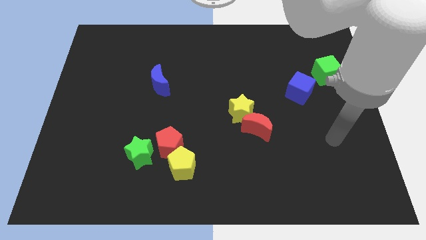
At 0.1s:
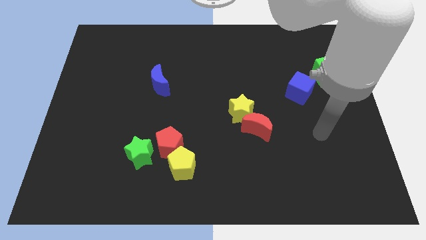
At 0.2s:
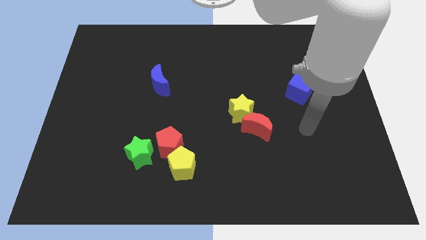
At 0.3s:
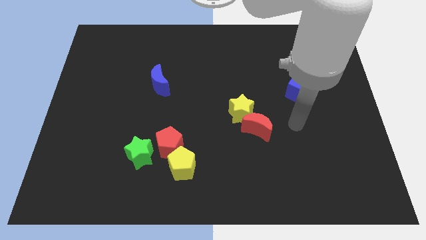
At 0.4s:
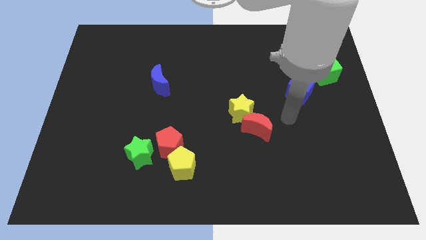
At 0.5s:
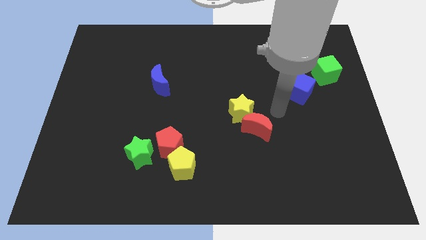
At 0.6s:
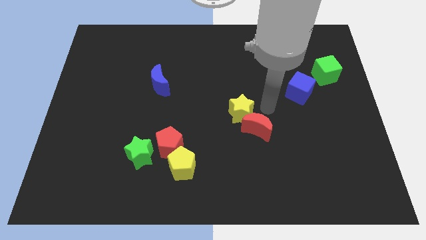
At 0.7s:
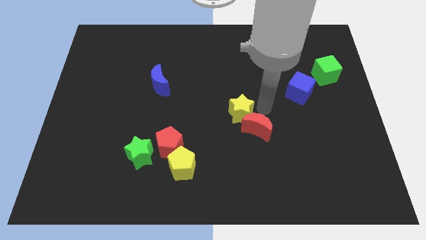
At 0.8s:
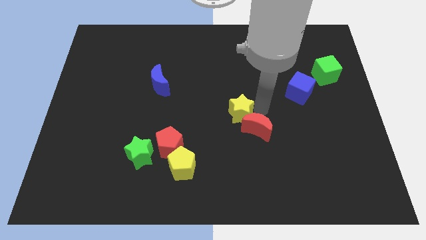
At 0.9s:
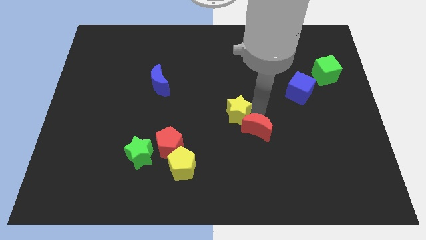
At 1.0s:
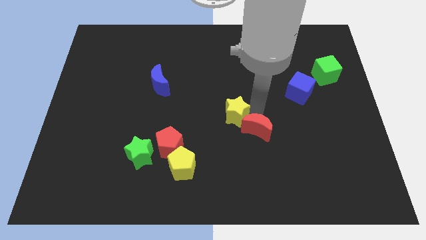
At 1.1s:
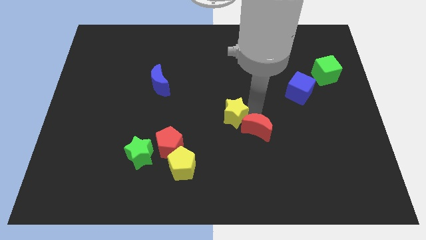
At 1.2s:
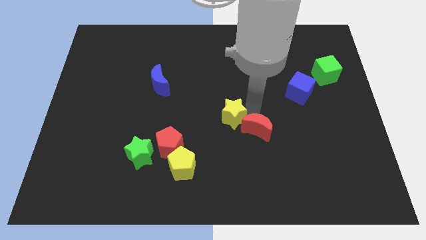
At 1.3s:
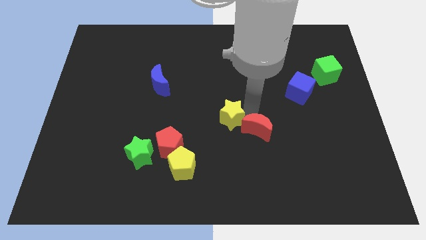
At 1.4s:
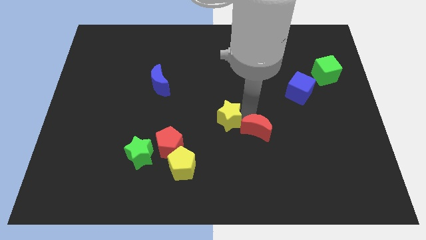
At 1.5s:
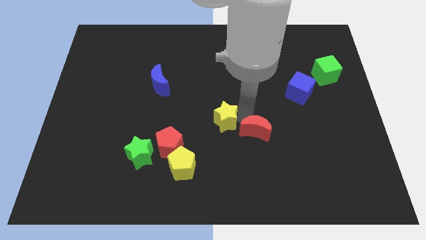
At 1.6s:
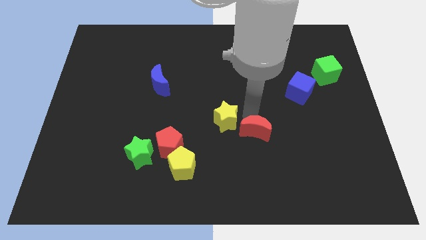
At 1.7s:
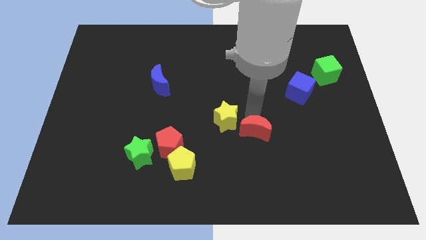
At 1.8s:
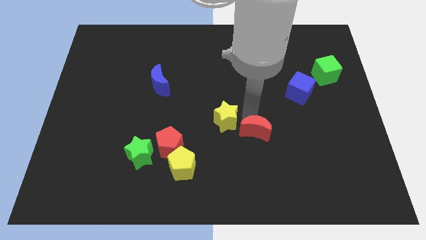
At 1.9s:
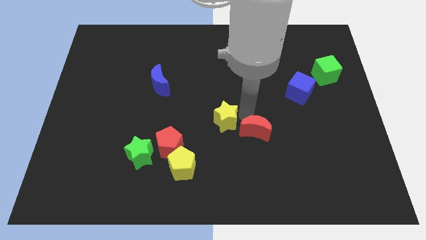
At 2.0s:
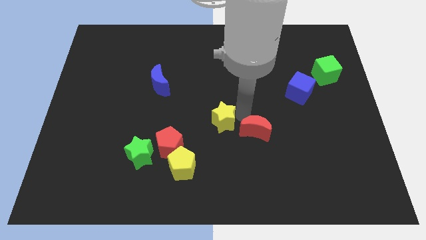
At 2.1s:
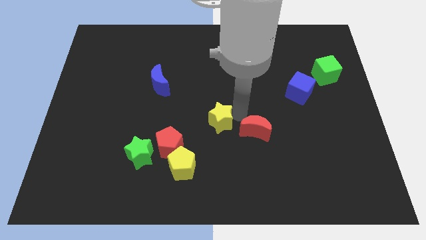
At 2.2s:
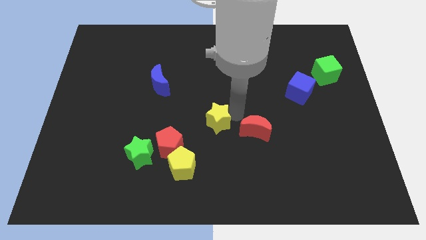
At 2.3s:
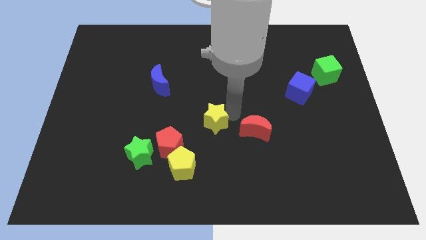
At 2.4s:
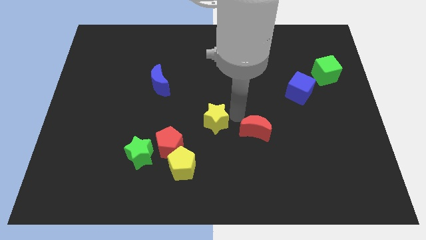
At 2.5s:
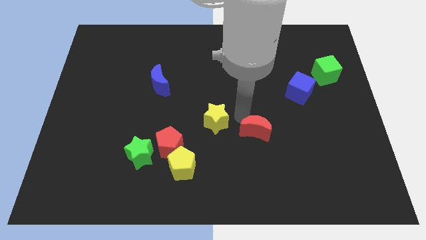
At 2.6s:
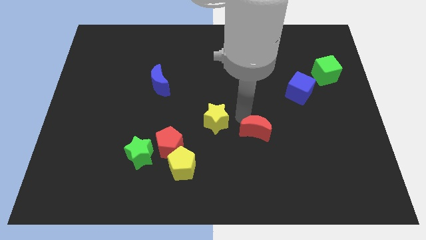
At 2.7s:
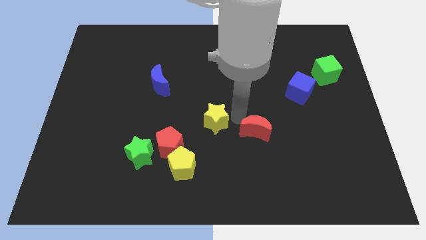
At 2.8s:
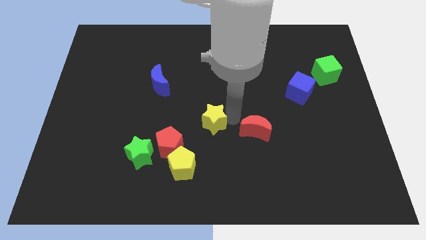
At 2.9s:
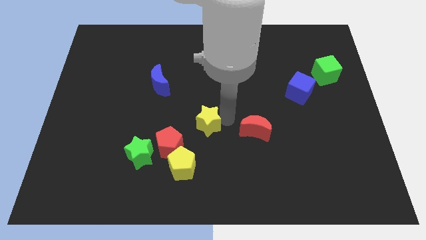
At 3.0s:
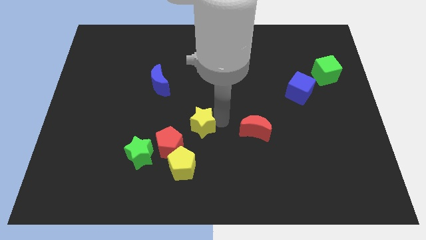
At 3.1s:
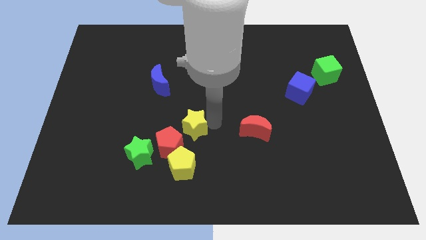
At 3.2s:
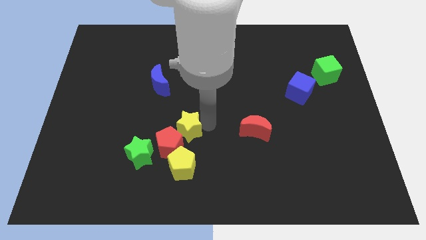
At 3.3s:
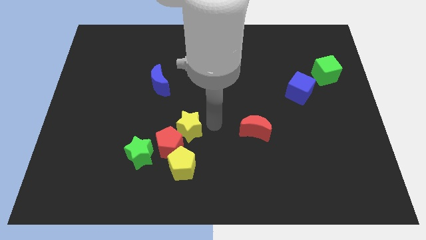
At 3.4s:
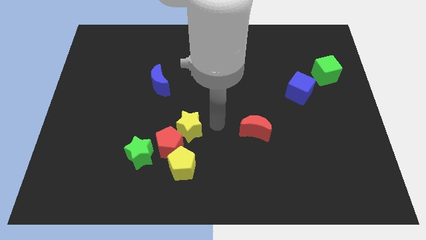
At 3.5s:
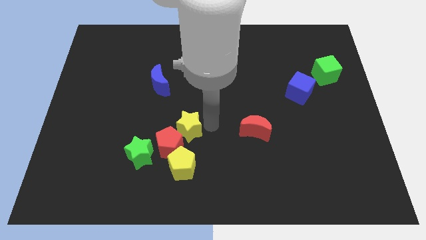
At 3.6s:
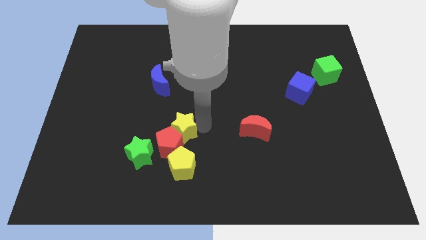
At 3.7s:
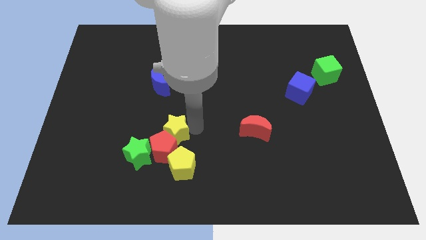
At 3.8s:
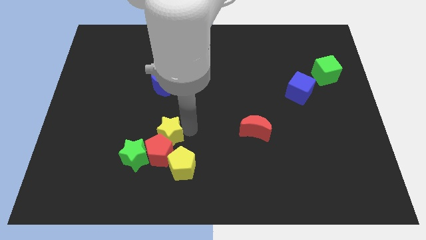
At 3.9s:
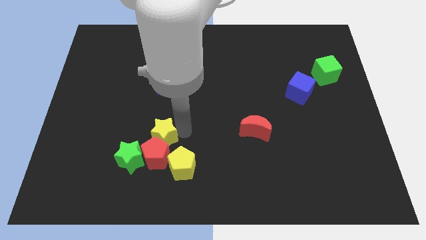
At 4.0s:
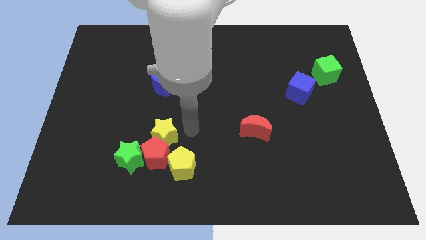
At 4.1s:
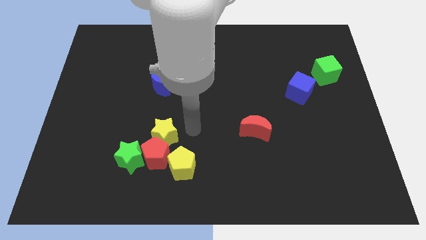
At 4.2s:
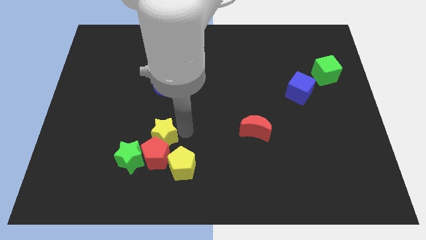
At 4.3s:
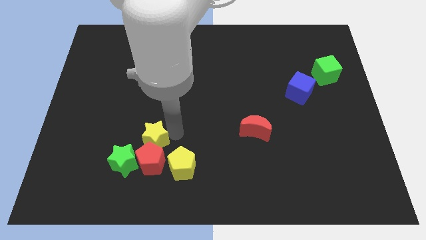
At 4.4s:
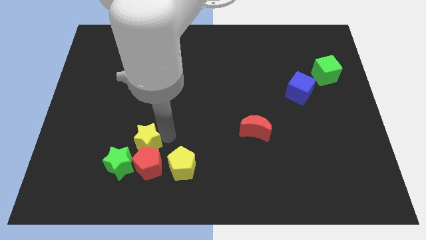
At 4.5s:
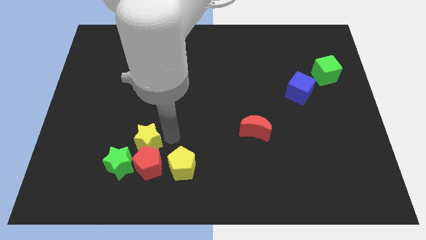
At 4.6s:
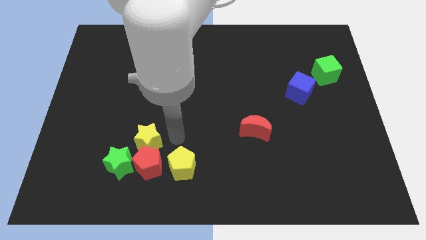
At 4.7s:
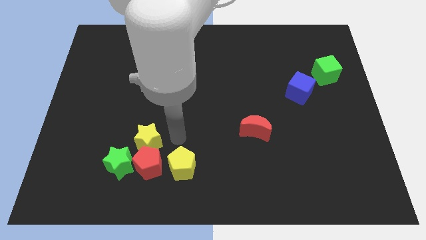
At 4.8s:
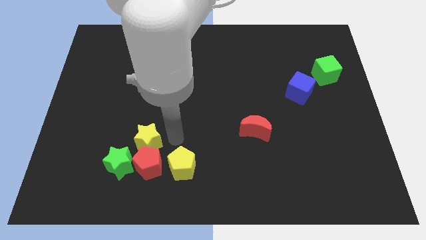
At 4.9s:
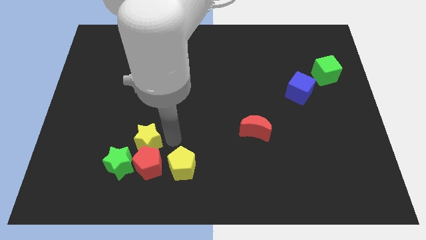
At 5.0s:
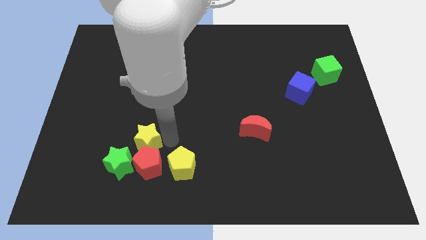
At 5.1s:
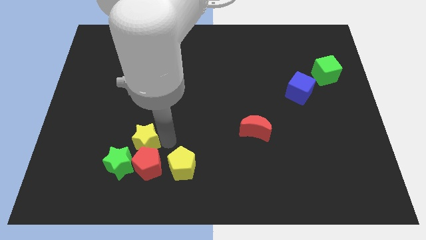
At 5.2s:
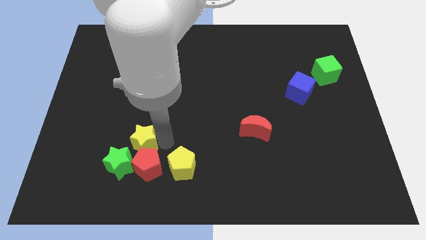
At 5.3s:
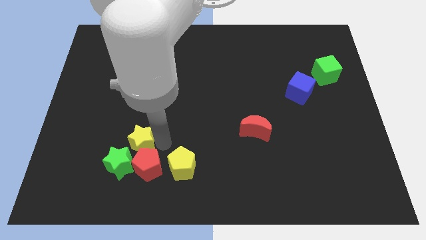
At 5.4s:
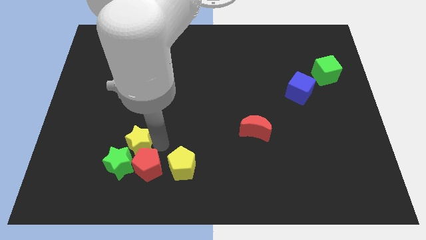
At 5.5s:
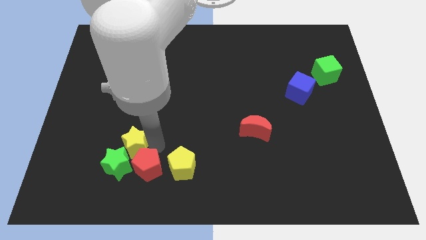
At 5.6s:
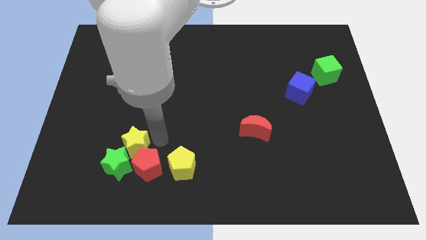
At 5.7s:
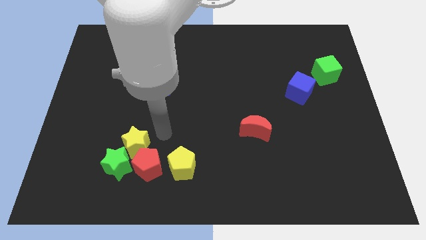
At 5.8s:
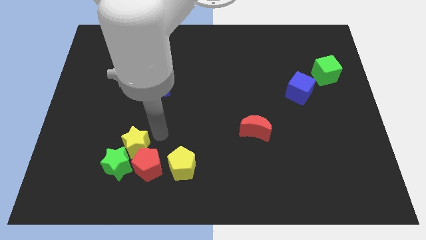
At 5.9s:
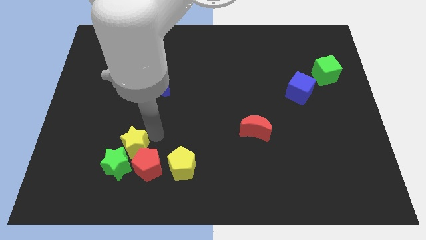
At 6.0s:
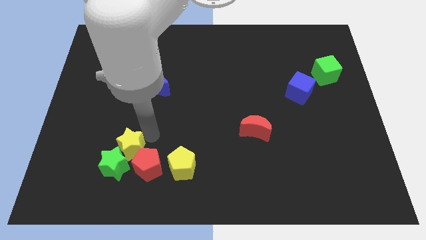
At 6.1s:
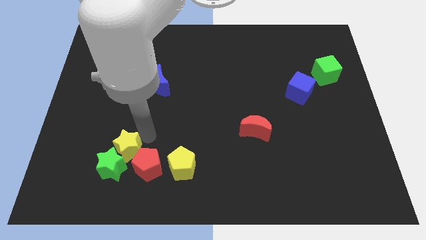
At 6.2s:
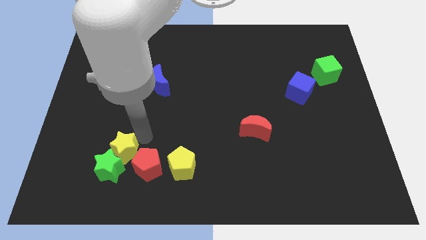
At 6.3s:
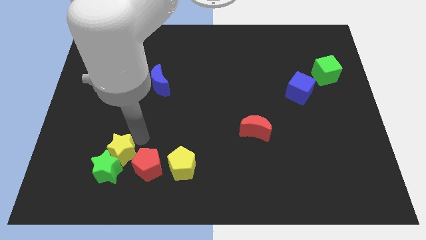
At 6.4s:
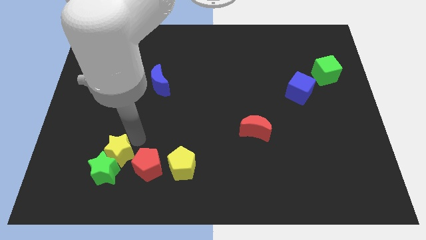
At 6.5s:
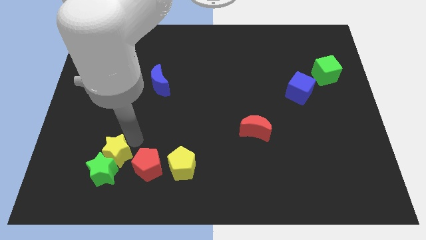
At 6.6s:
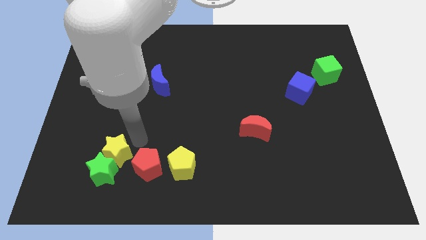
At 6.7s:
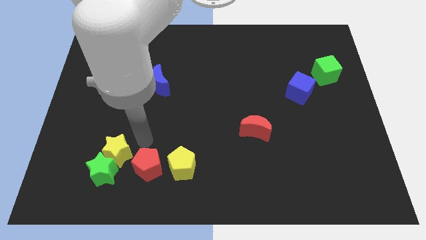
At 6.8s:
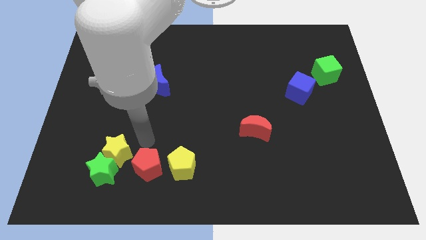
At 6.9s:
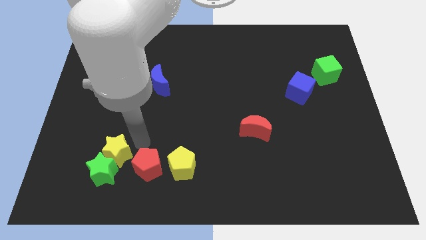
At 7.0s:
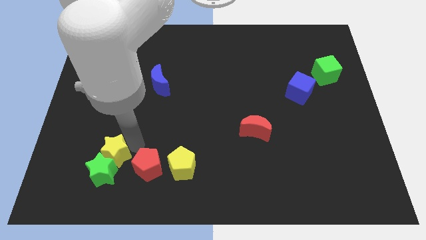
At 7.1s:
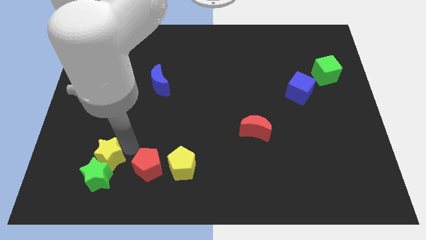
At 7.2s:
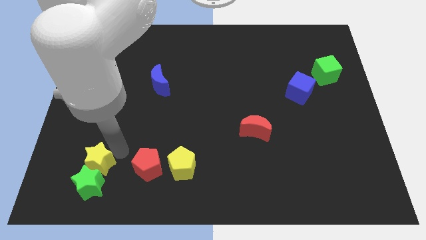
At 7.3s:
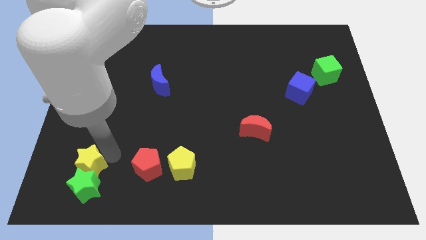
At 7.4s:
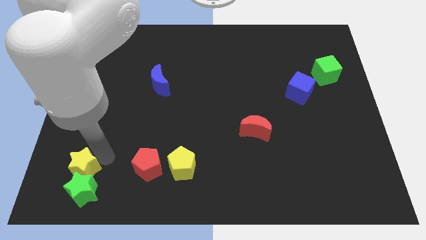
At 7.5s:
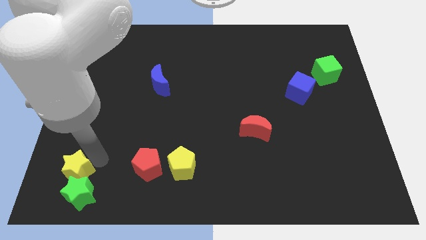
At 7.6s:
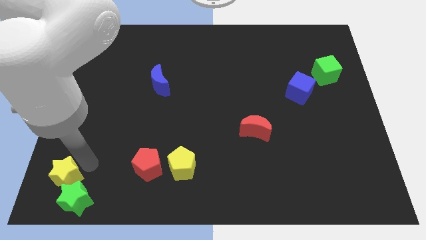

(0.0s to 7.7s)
put the yellow star to the bottom left
